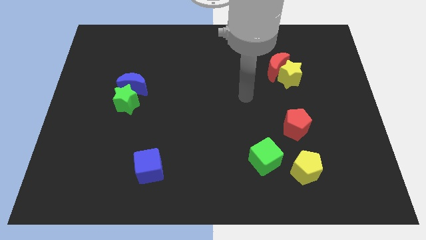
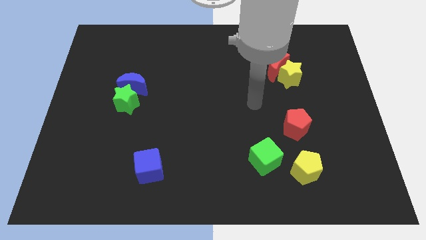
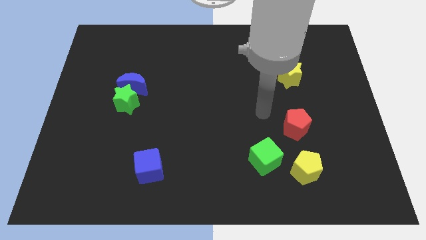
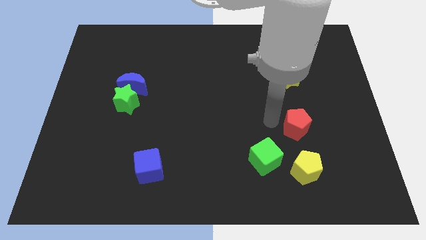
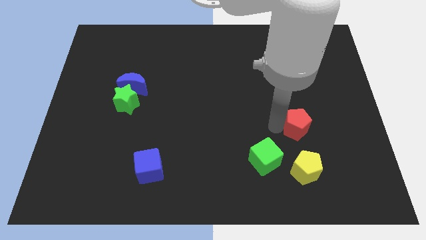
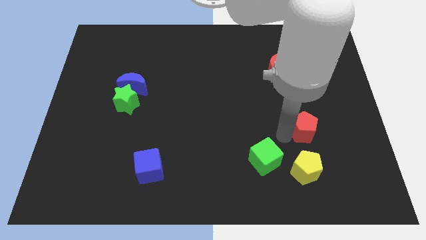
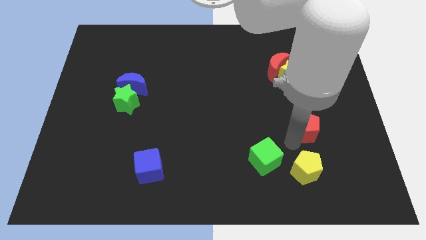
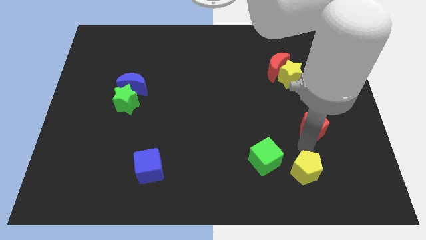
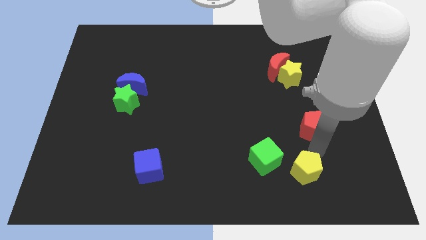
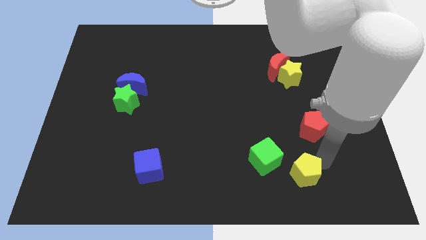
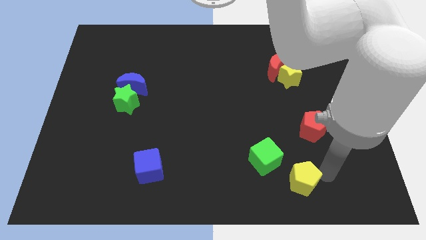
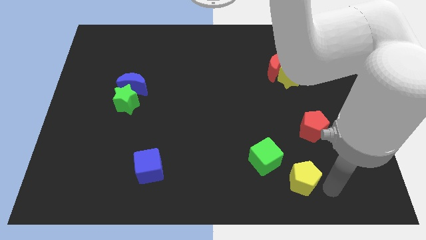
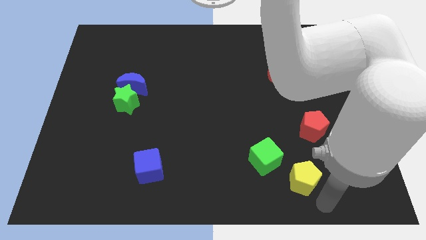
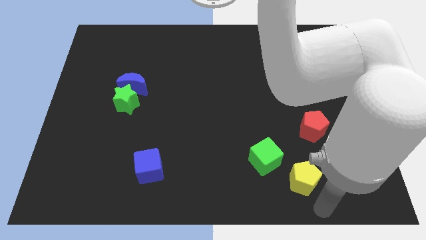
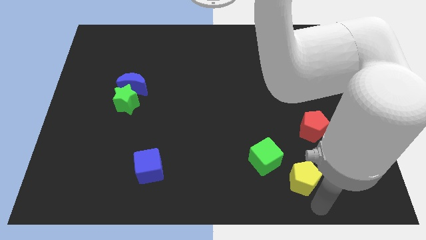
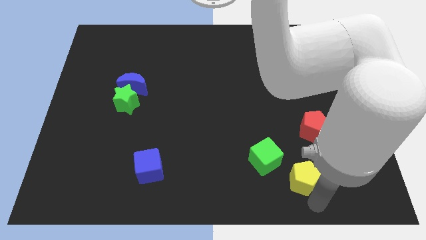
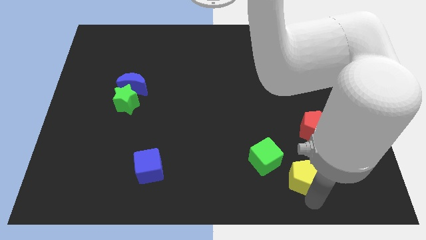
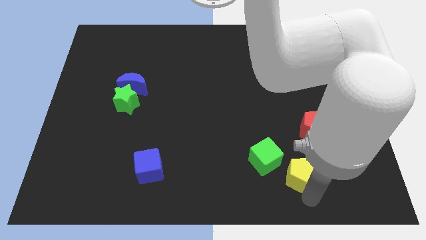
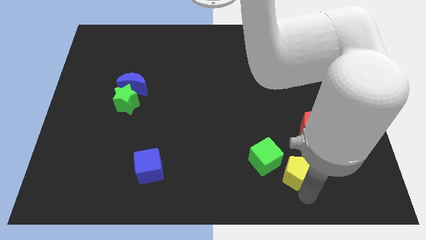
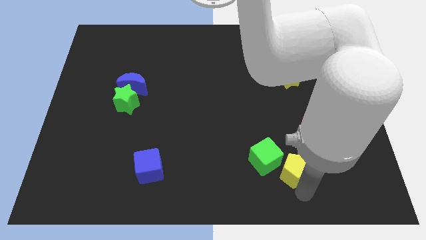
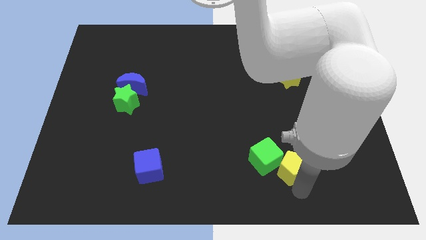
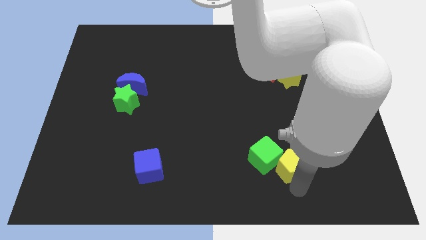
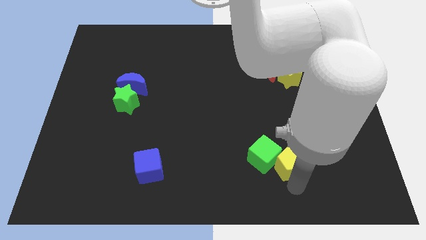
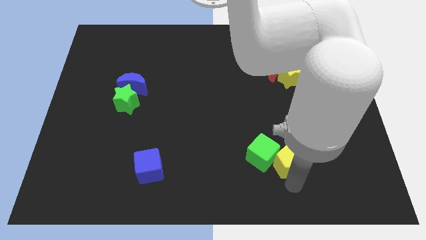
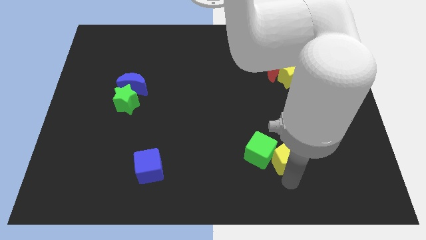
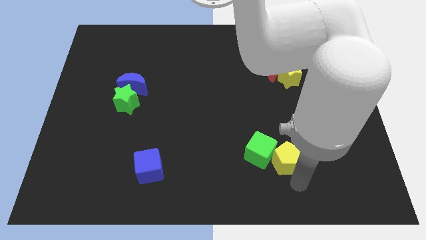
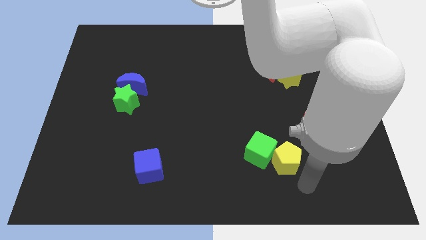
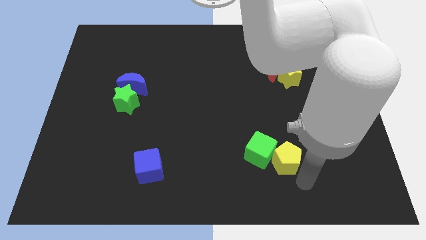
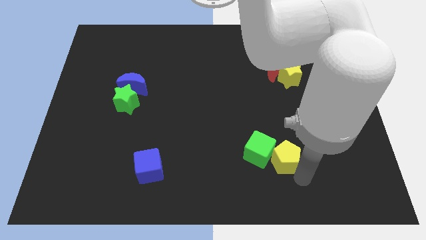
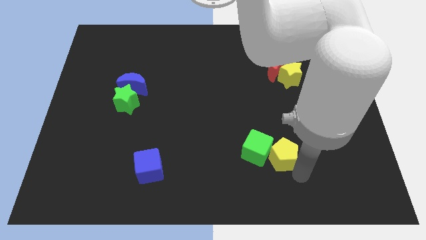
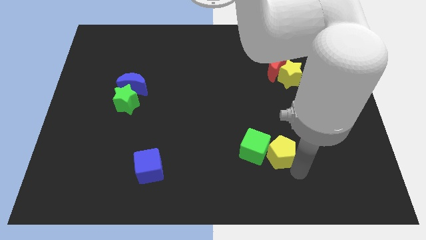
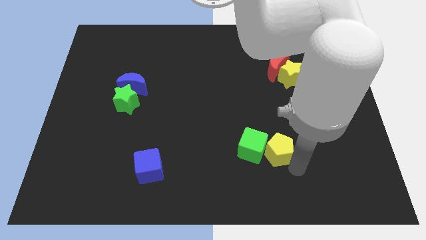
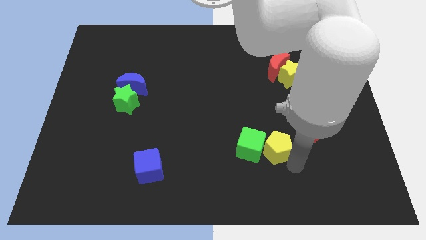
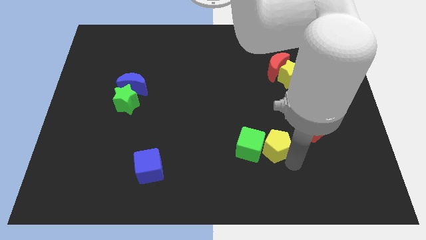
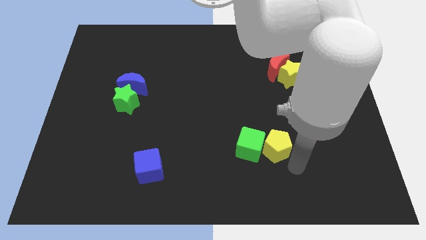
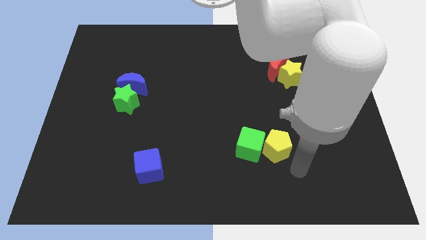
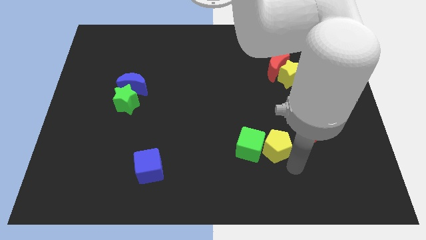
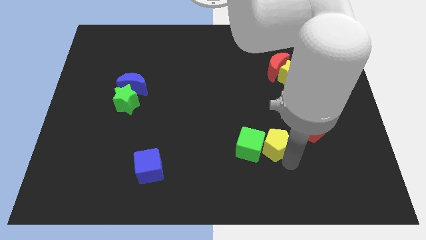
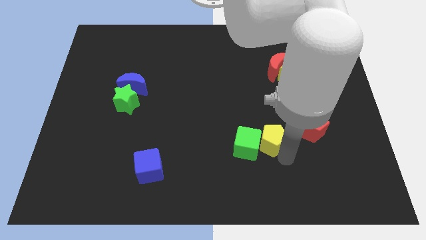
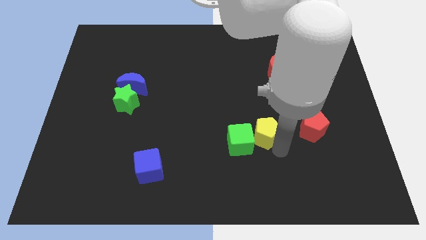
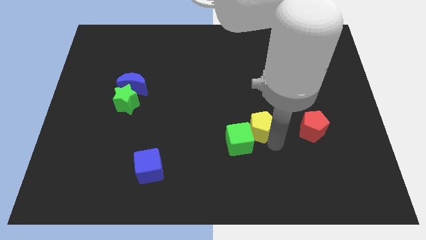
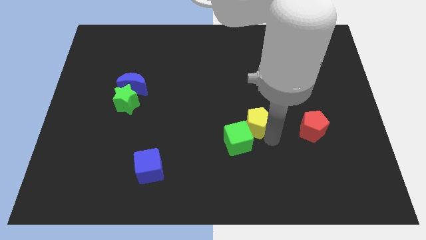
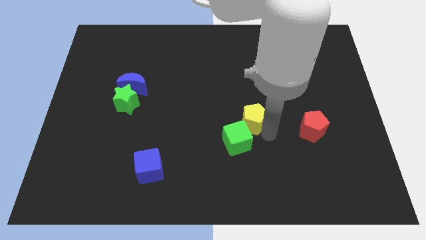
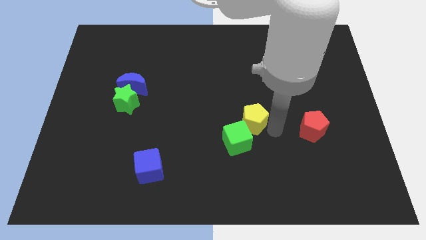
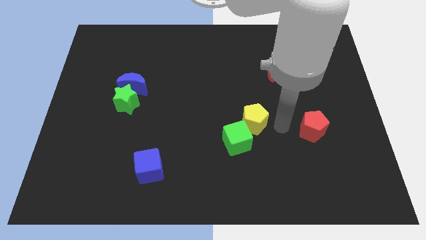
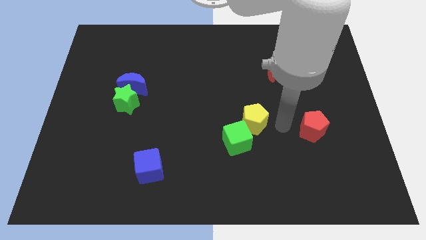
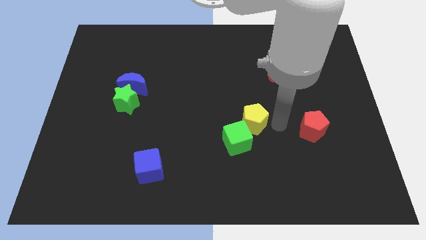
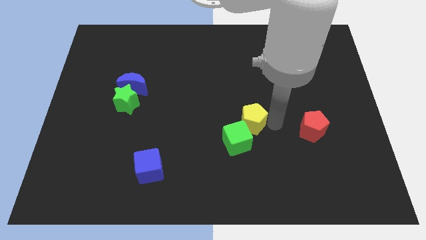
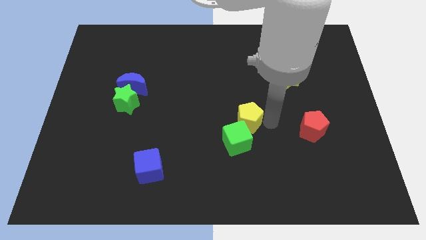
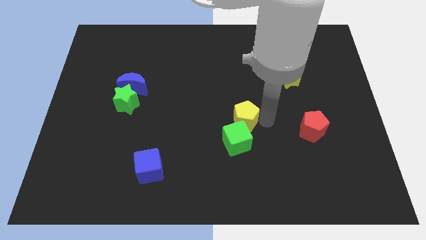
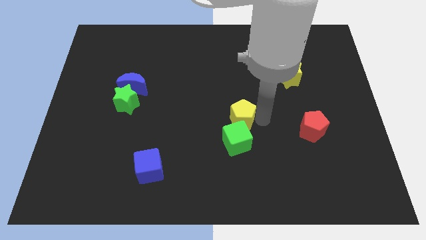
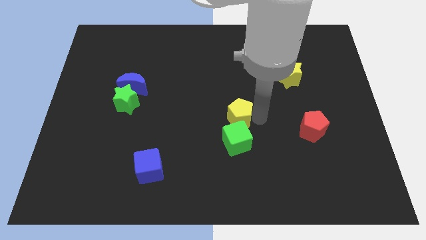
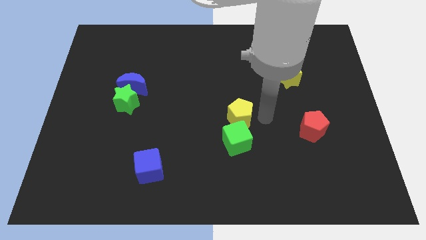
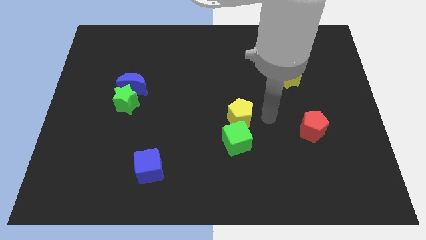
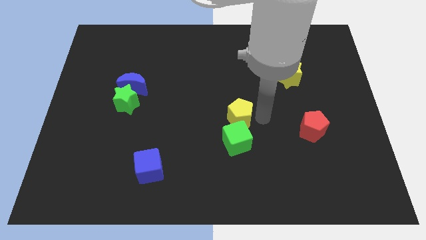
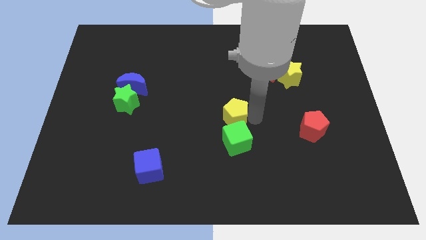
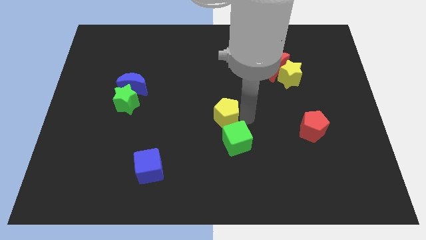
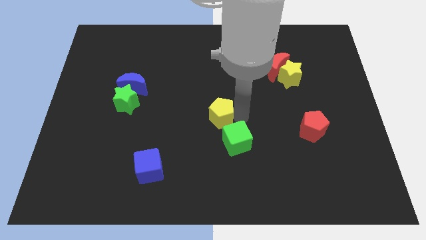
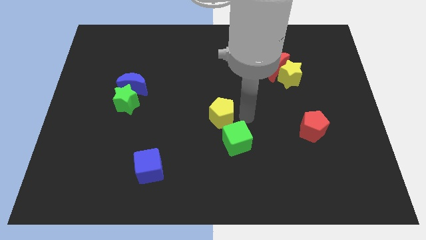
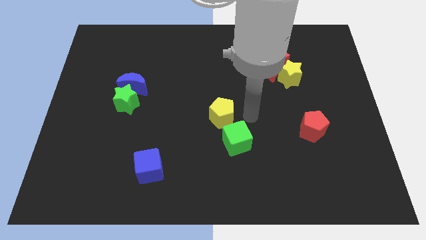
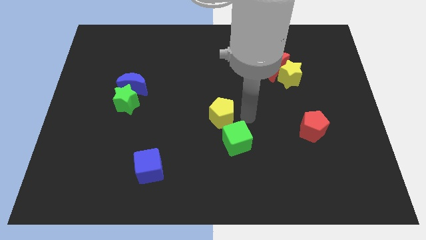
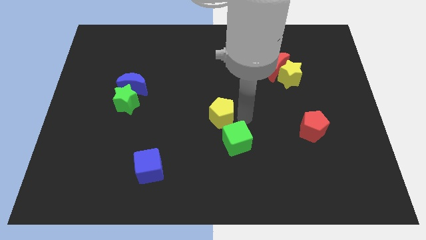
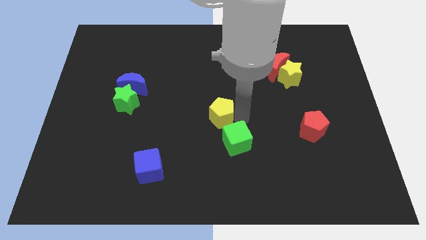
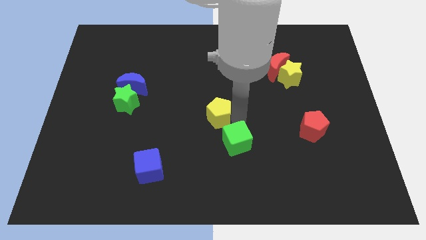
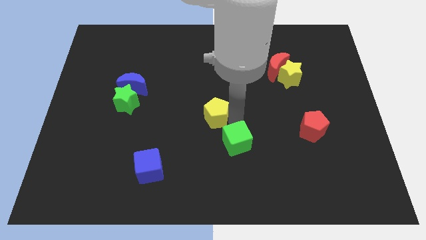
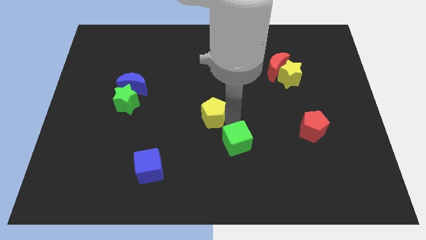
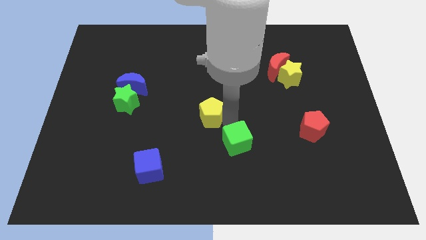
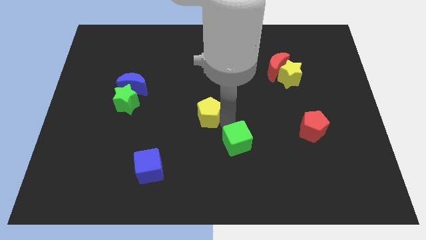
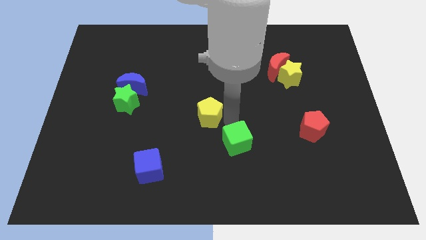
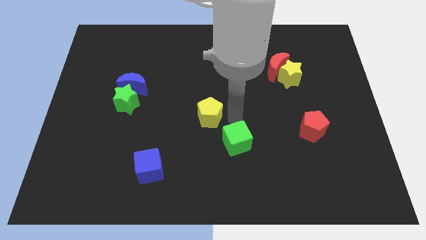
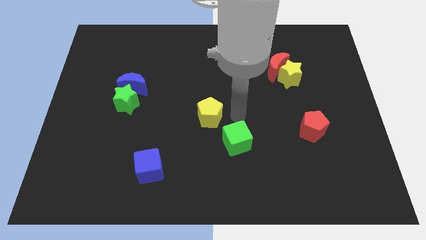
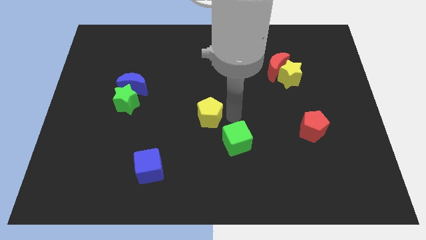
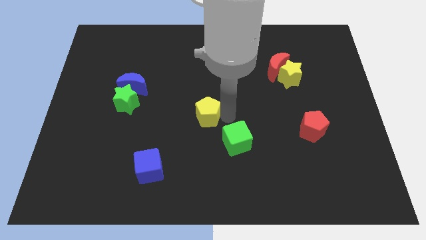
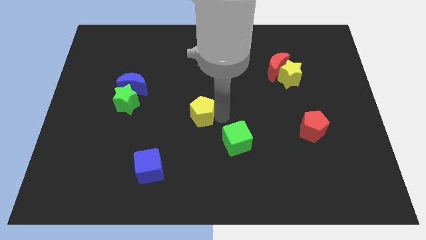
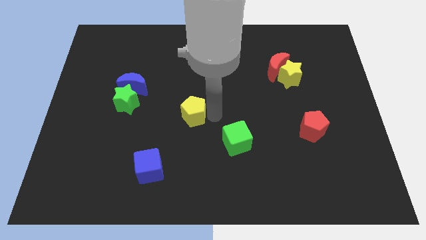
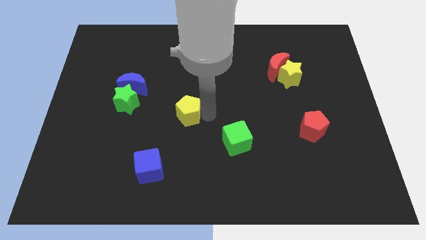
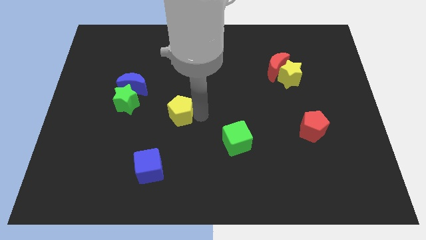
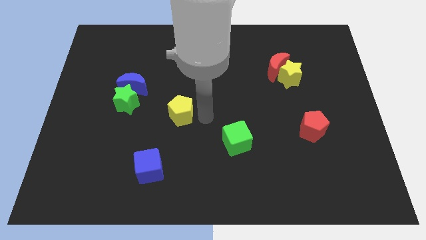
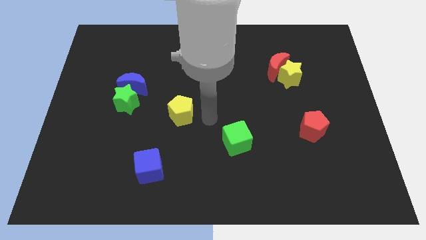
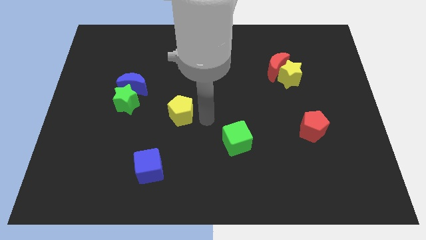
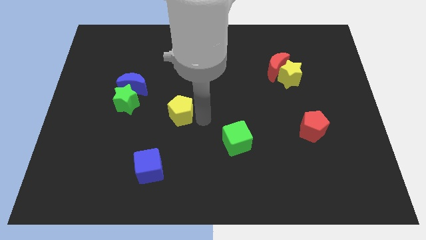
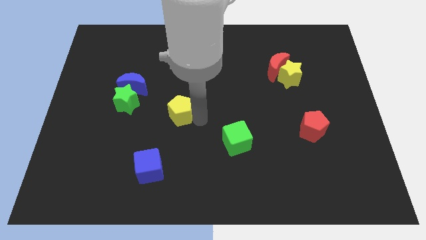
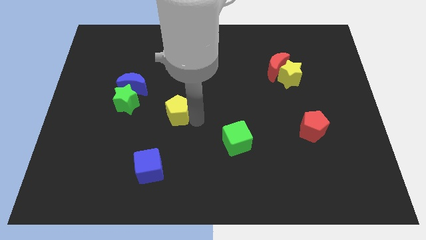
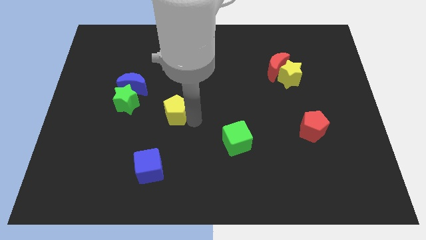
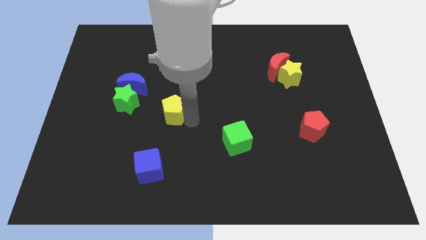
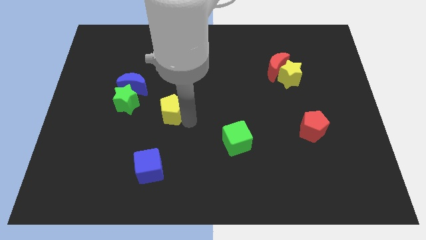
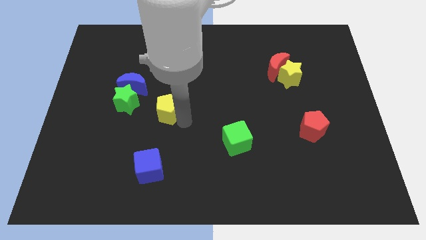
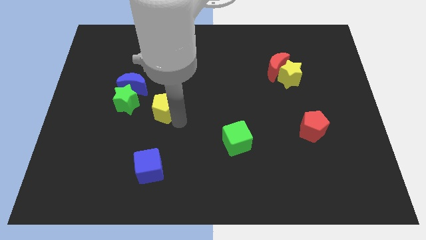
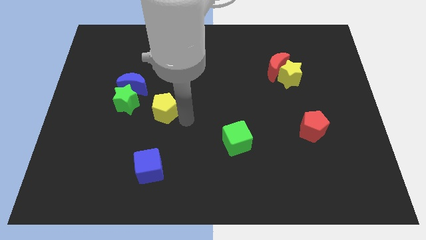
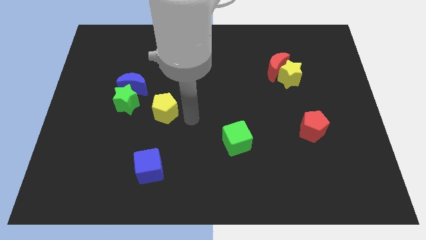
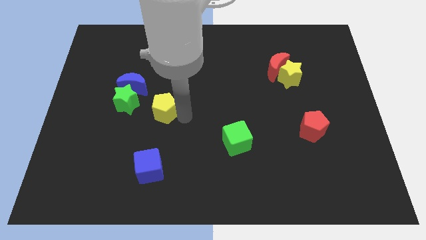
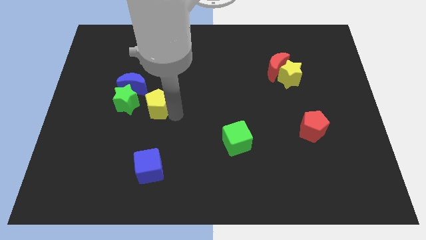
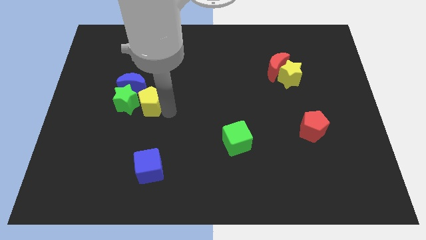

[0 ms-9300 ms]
move the yellow pentagon next to the green star
